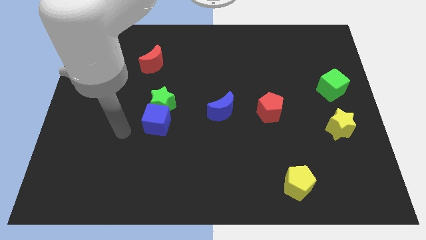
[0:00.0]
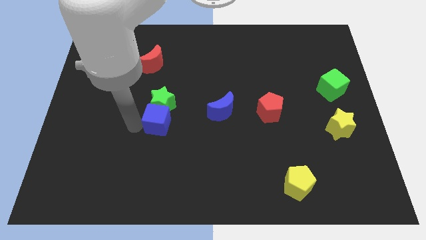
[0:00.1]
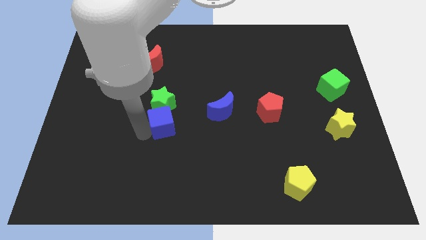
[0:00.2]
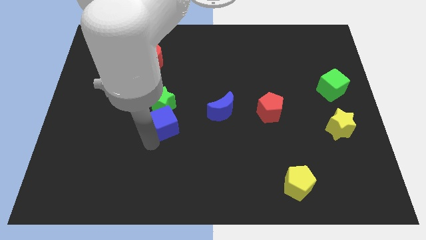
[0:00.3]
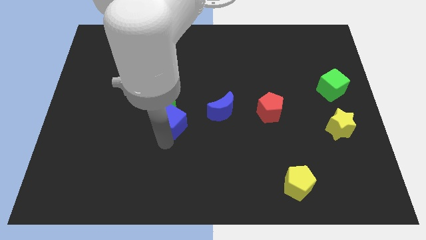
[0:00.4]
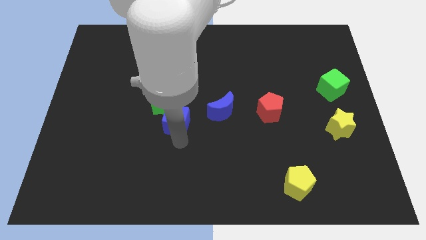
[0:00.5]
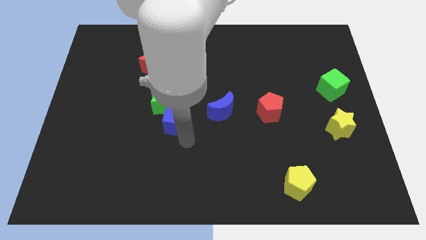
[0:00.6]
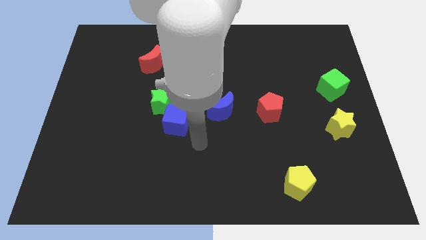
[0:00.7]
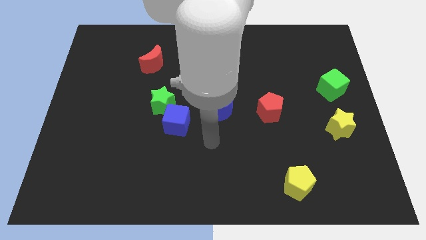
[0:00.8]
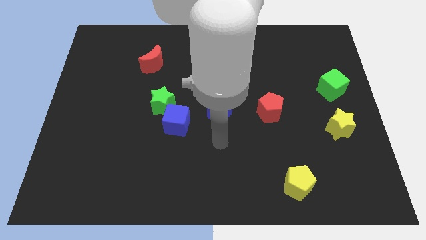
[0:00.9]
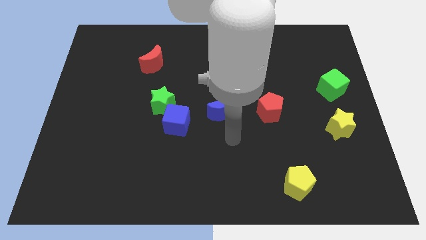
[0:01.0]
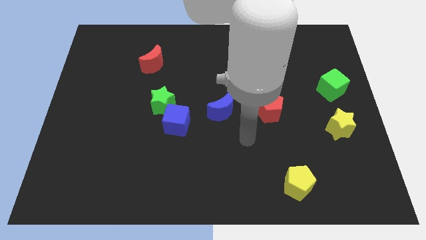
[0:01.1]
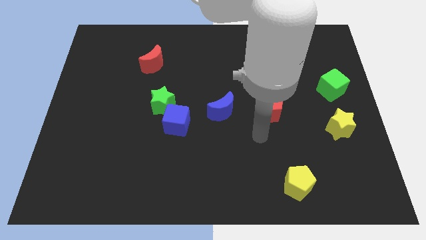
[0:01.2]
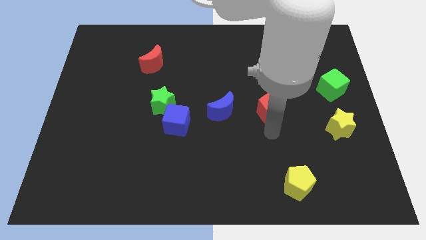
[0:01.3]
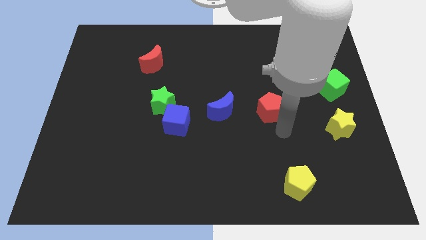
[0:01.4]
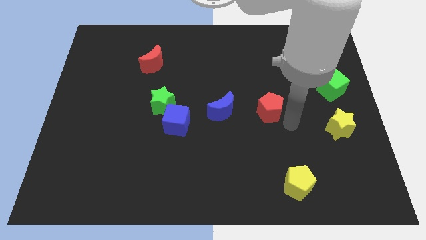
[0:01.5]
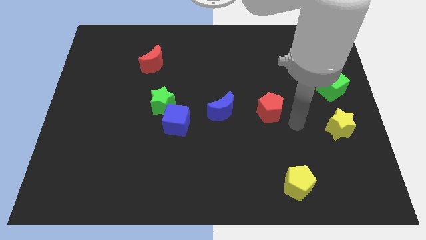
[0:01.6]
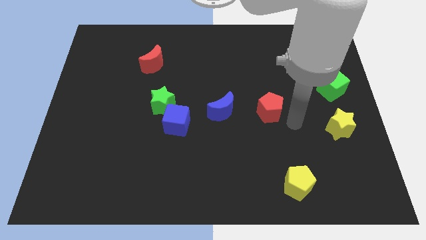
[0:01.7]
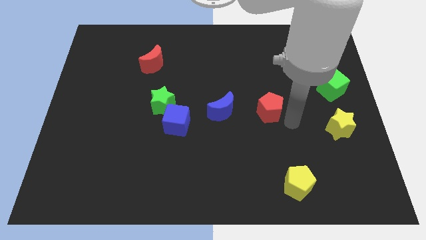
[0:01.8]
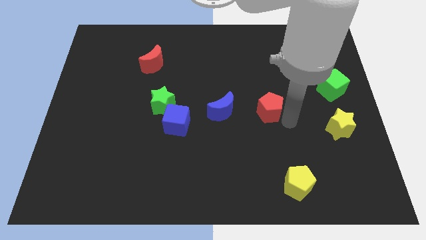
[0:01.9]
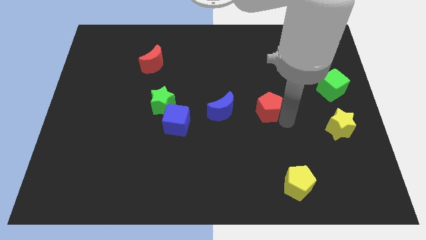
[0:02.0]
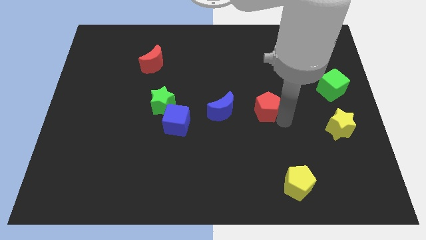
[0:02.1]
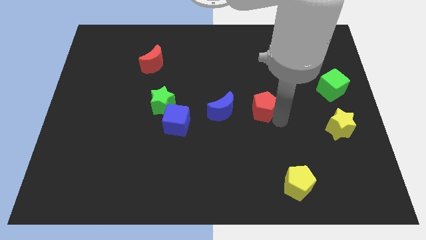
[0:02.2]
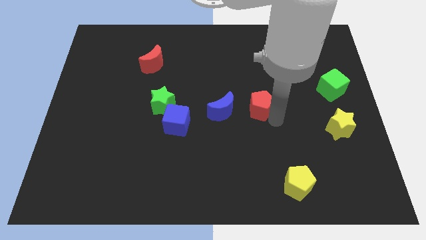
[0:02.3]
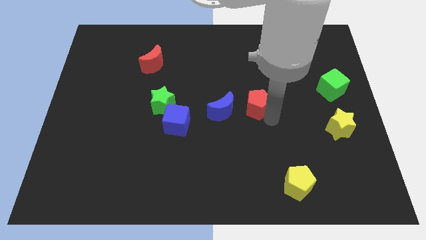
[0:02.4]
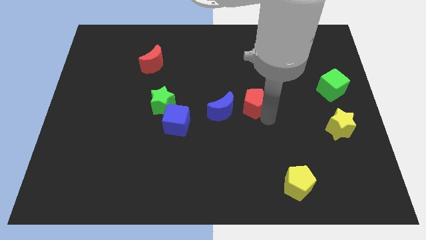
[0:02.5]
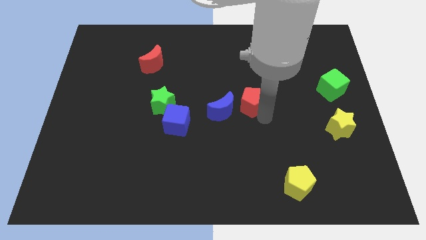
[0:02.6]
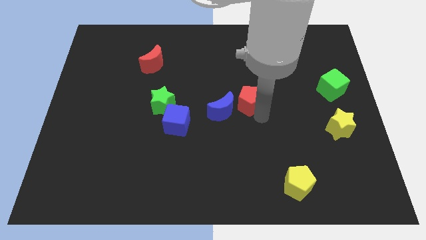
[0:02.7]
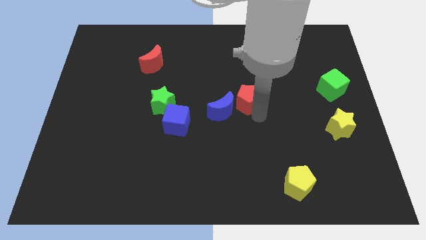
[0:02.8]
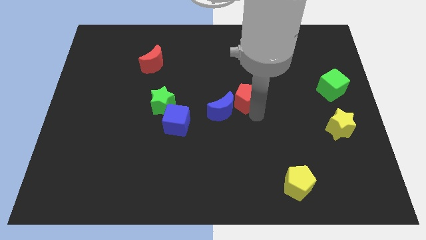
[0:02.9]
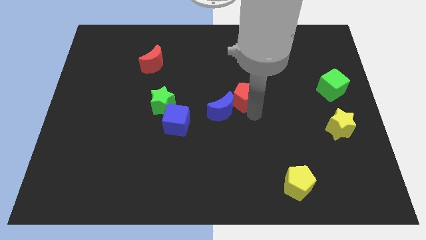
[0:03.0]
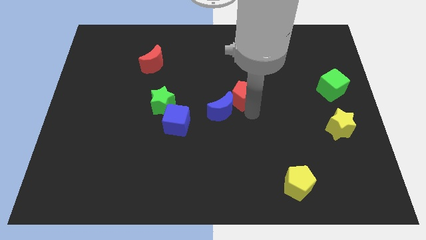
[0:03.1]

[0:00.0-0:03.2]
slide the red pentagon a little bit upwards and left diagonally

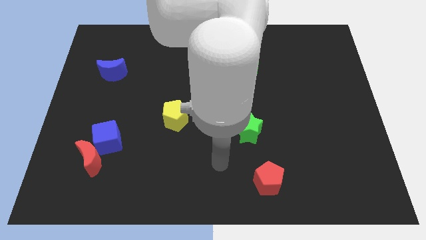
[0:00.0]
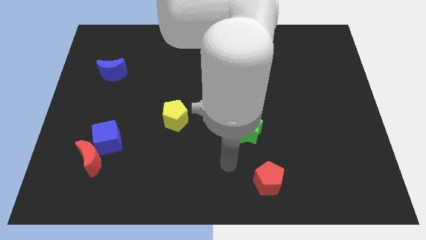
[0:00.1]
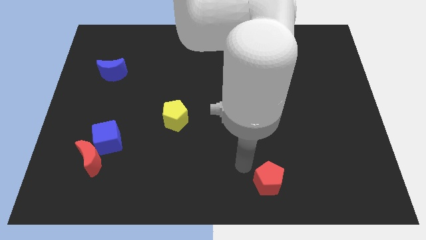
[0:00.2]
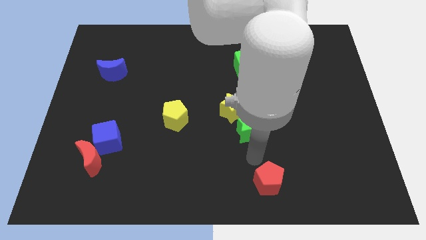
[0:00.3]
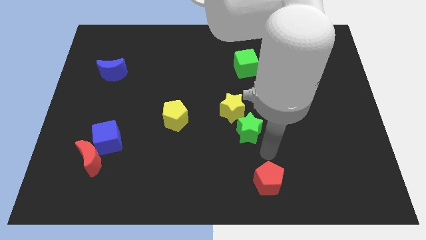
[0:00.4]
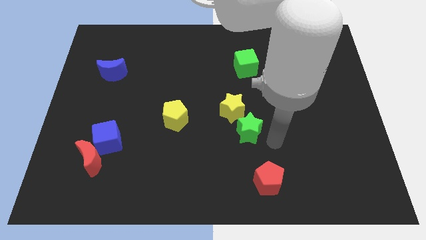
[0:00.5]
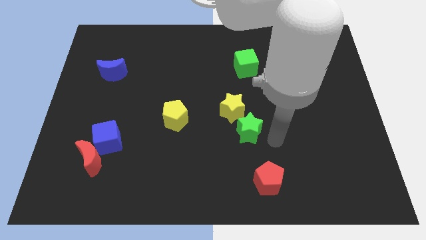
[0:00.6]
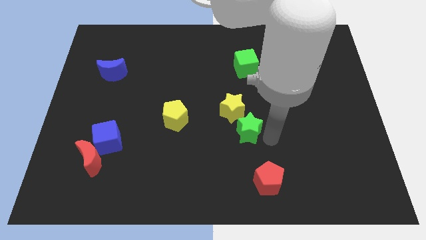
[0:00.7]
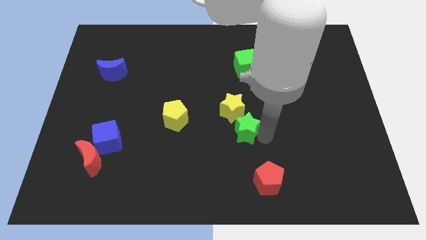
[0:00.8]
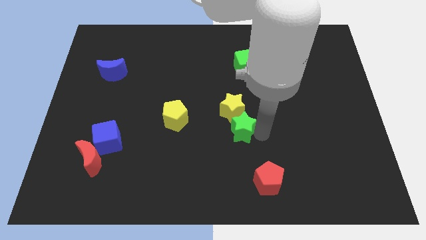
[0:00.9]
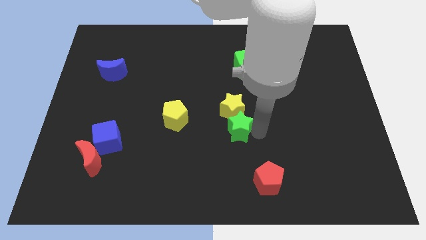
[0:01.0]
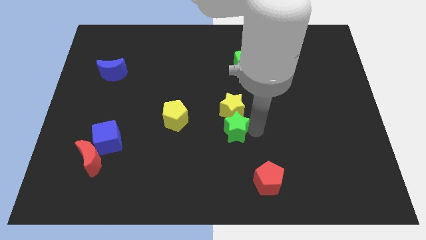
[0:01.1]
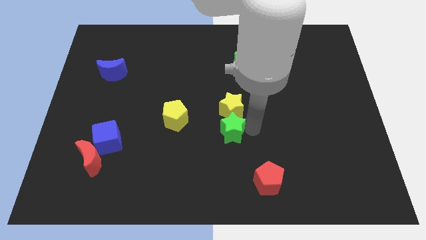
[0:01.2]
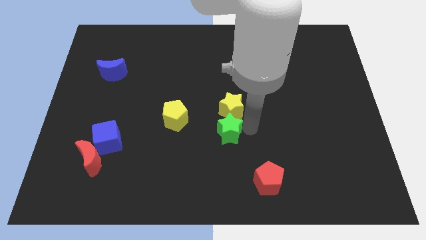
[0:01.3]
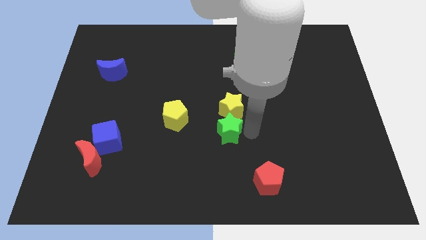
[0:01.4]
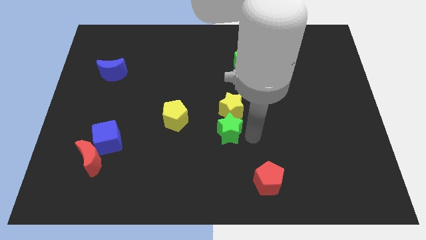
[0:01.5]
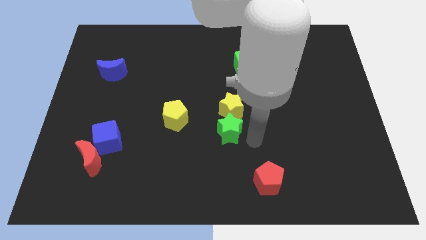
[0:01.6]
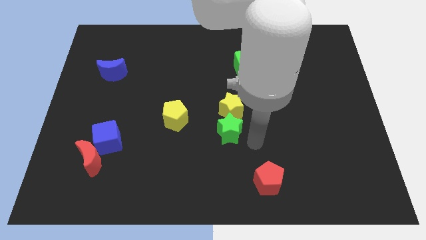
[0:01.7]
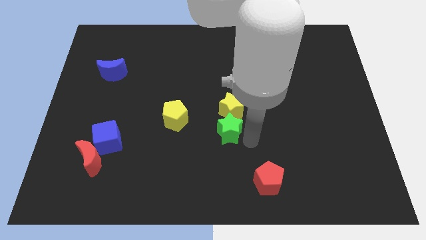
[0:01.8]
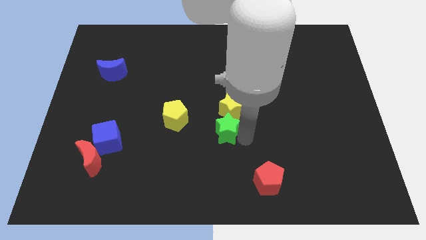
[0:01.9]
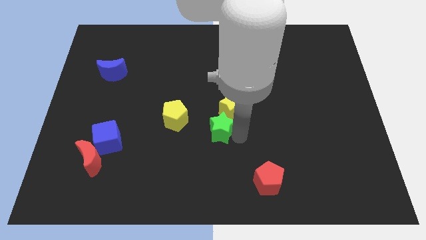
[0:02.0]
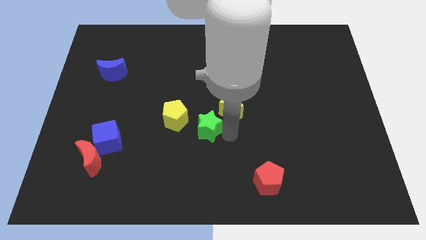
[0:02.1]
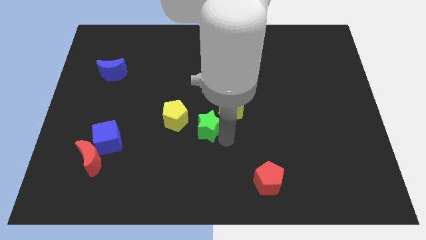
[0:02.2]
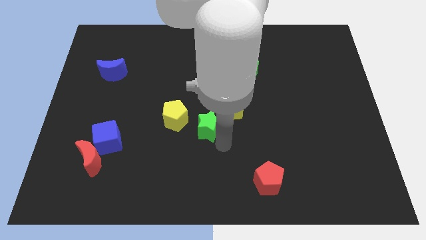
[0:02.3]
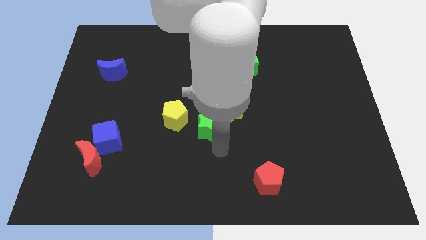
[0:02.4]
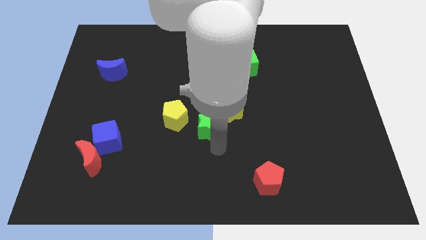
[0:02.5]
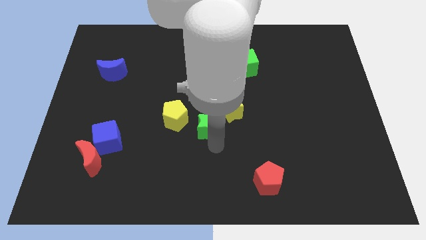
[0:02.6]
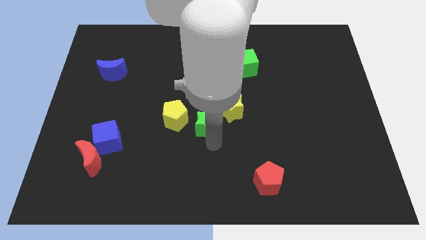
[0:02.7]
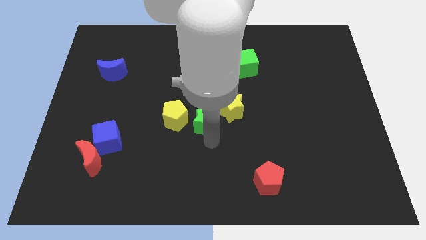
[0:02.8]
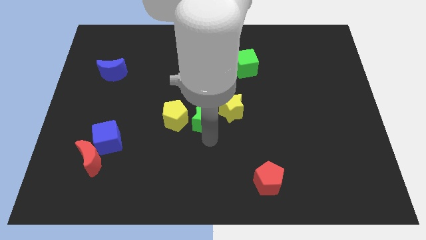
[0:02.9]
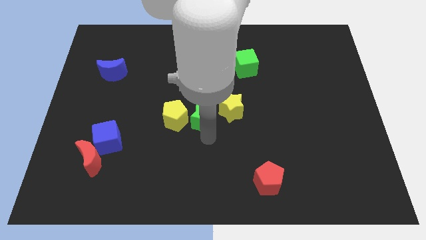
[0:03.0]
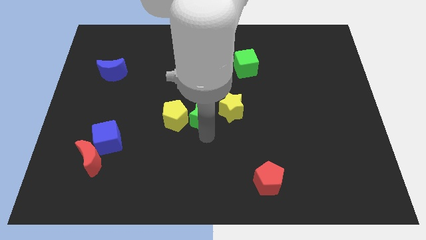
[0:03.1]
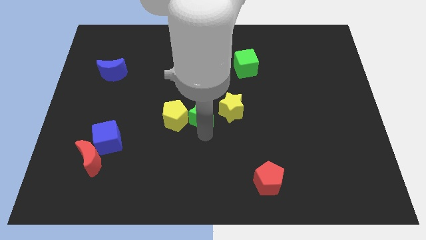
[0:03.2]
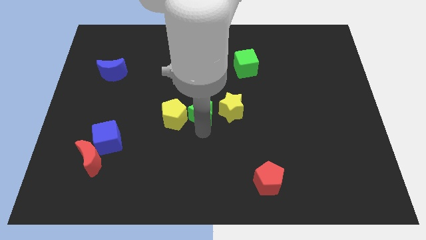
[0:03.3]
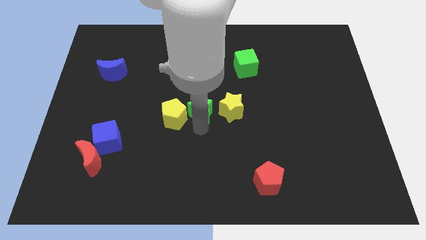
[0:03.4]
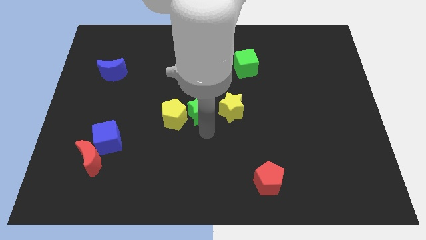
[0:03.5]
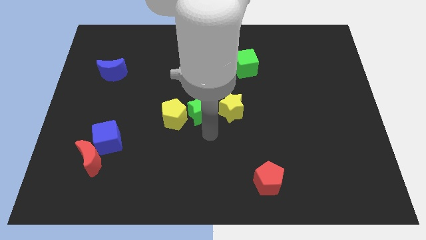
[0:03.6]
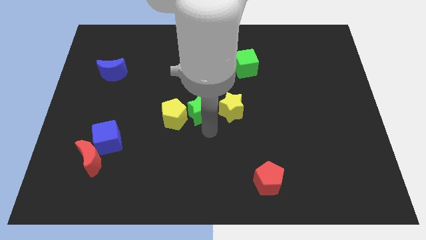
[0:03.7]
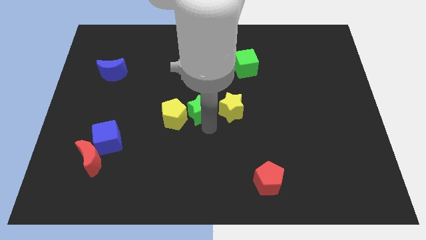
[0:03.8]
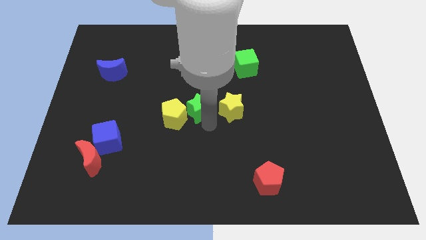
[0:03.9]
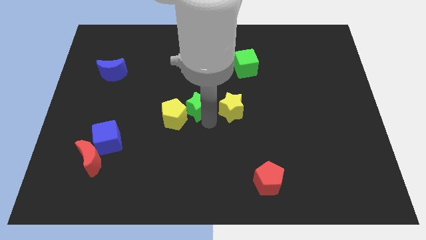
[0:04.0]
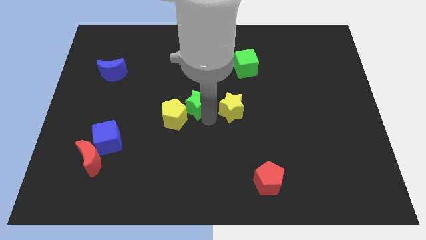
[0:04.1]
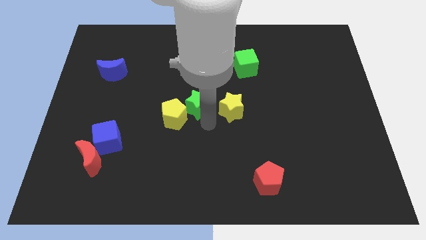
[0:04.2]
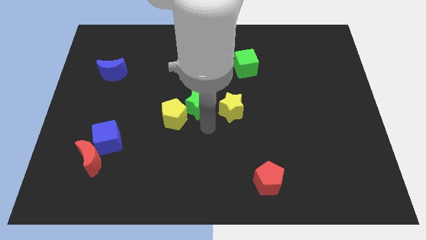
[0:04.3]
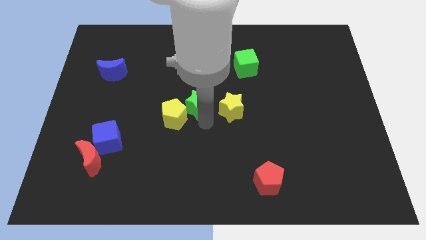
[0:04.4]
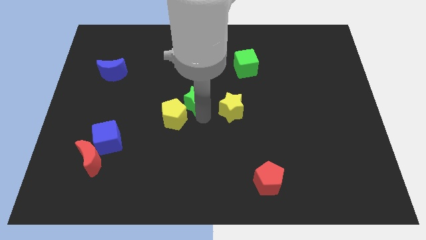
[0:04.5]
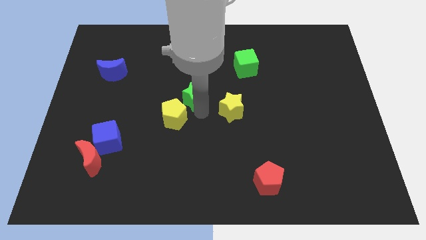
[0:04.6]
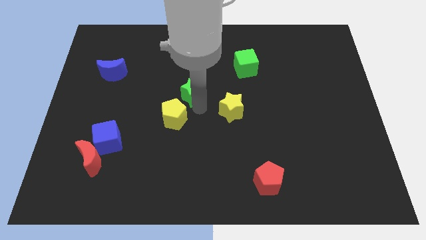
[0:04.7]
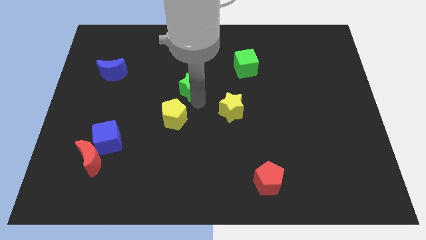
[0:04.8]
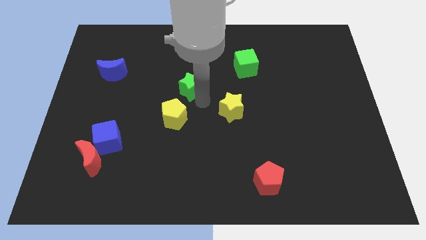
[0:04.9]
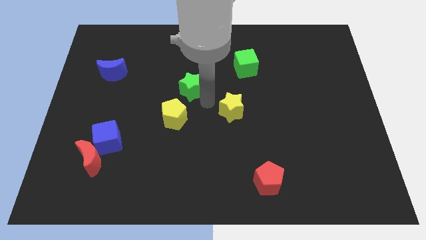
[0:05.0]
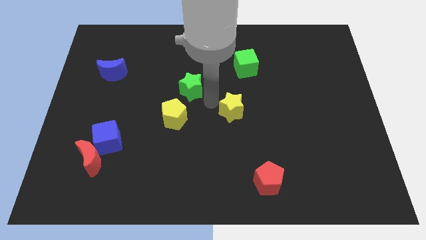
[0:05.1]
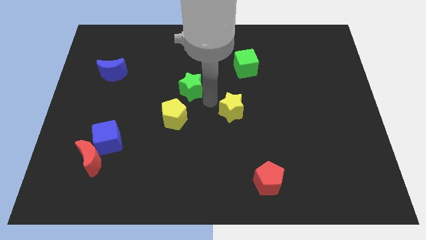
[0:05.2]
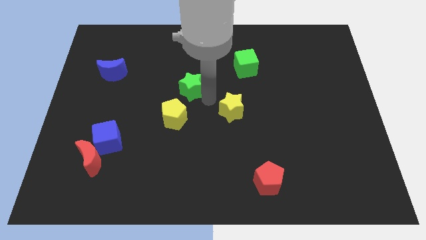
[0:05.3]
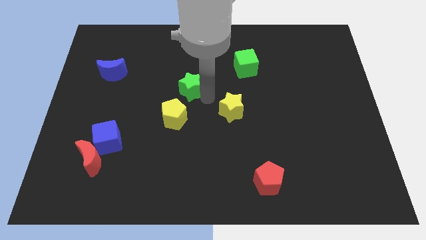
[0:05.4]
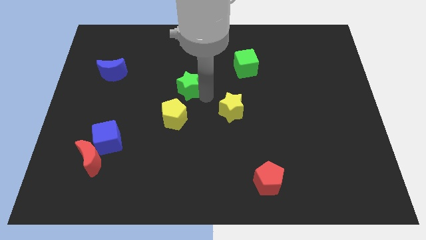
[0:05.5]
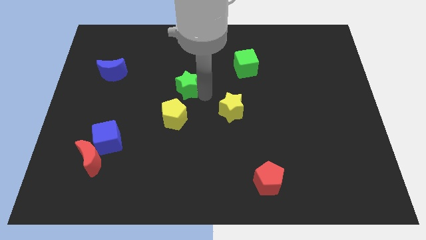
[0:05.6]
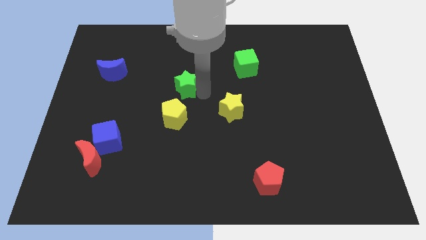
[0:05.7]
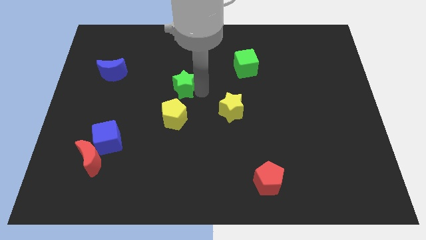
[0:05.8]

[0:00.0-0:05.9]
move the green star upwards and then left
